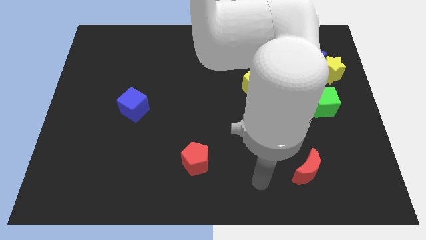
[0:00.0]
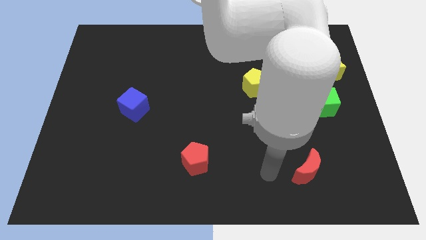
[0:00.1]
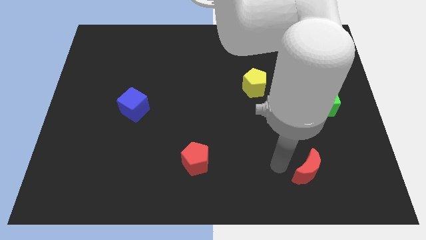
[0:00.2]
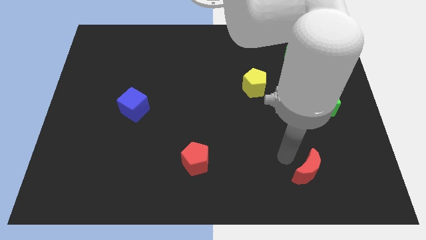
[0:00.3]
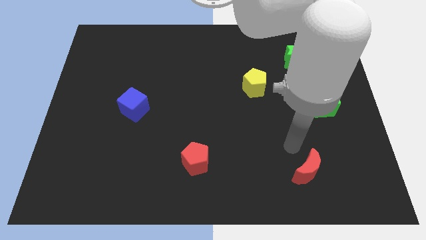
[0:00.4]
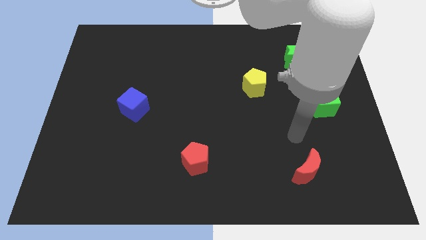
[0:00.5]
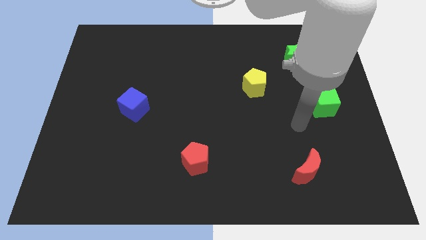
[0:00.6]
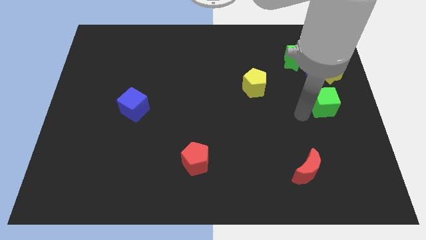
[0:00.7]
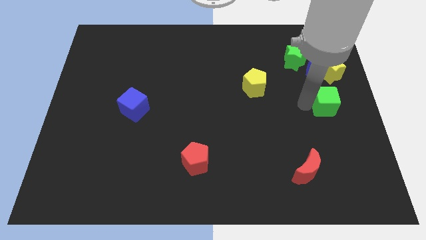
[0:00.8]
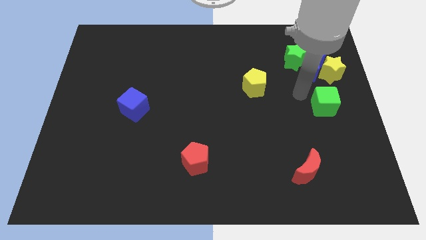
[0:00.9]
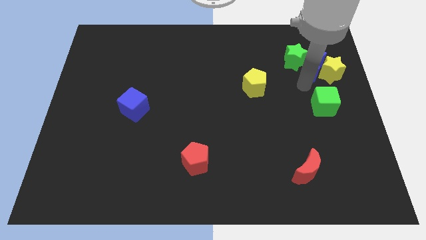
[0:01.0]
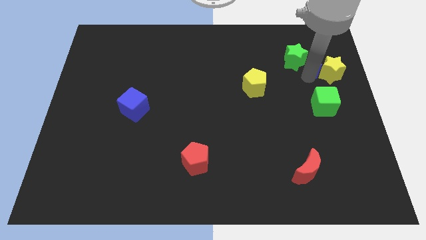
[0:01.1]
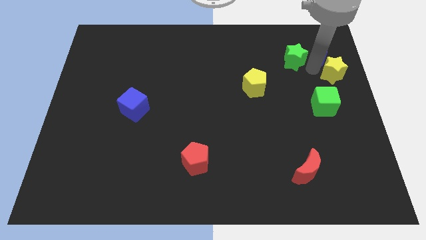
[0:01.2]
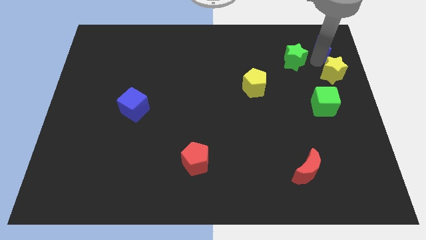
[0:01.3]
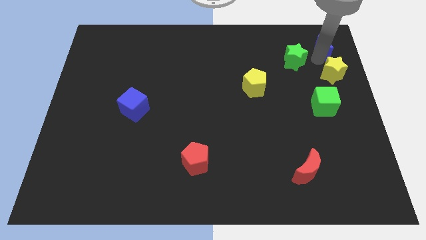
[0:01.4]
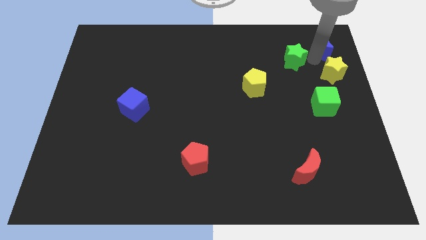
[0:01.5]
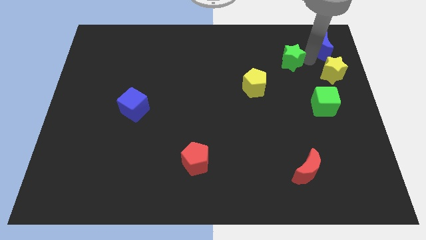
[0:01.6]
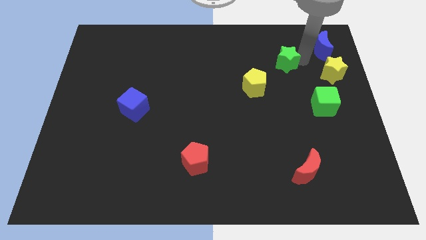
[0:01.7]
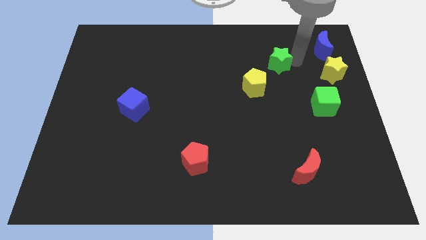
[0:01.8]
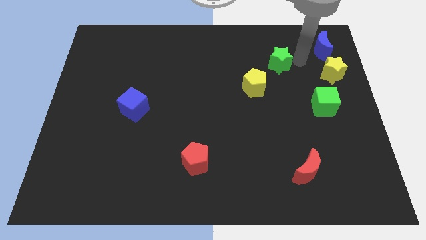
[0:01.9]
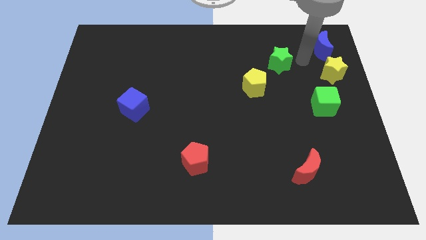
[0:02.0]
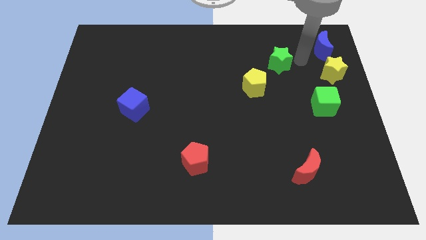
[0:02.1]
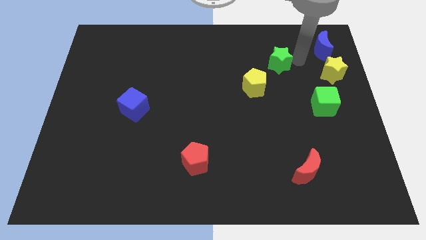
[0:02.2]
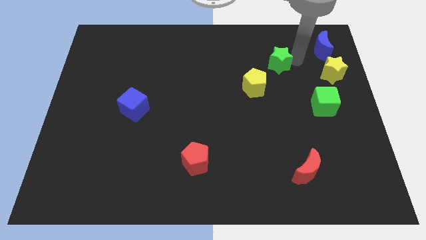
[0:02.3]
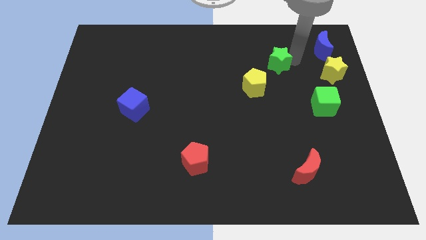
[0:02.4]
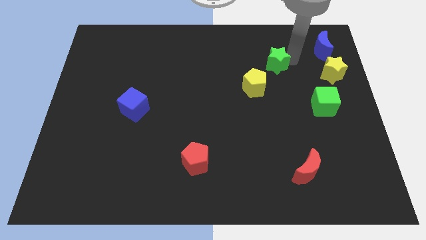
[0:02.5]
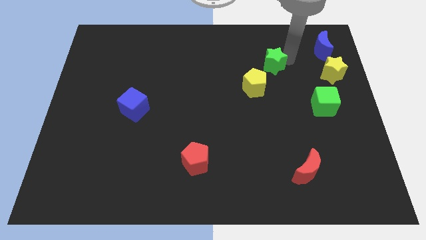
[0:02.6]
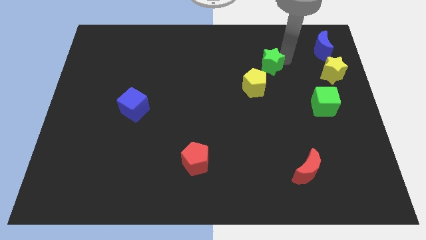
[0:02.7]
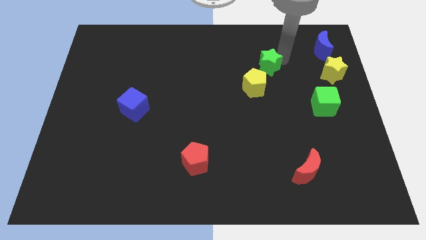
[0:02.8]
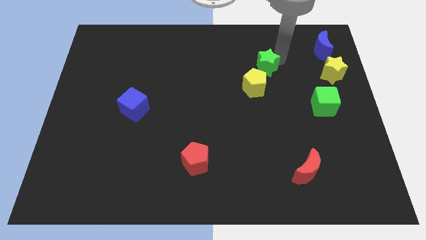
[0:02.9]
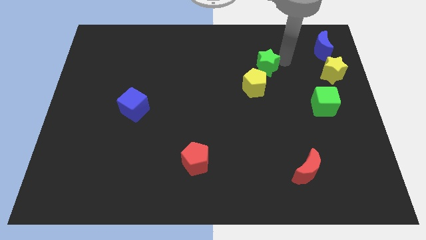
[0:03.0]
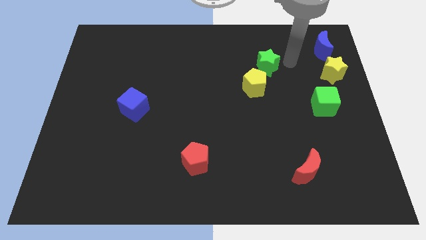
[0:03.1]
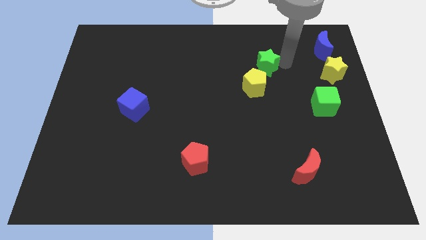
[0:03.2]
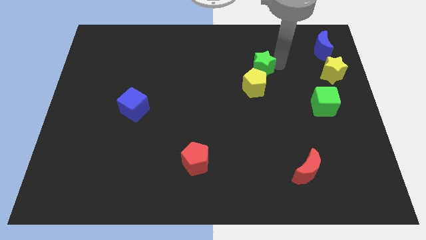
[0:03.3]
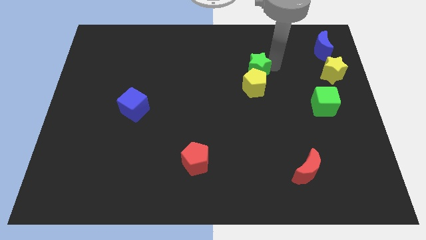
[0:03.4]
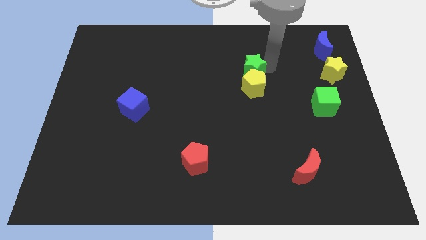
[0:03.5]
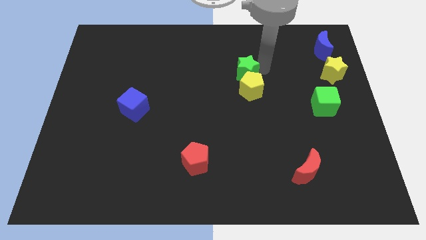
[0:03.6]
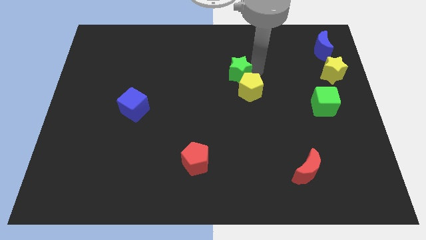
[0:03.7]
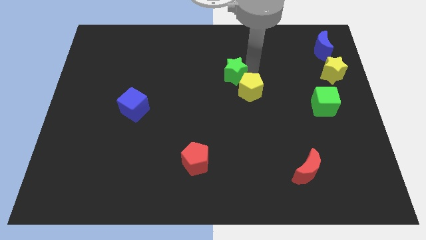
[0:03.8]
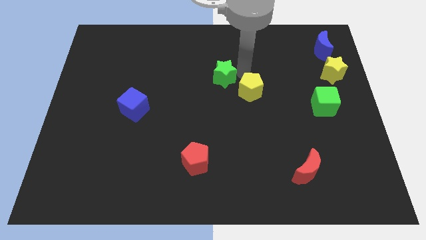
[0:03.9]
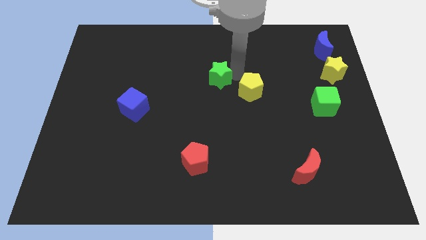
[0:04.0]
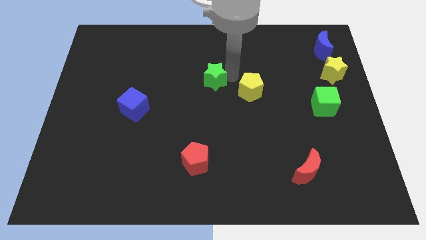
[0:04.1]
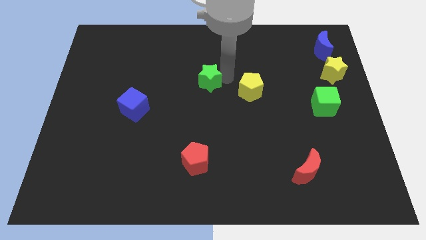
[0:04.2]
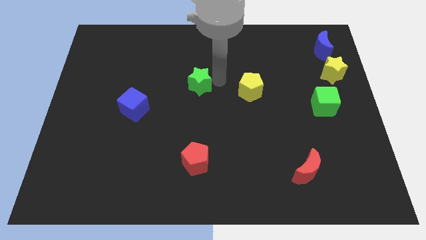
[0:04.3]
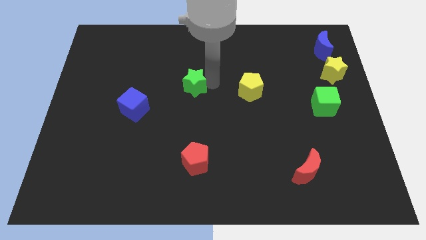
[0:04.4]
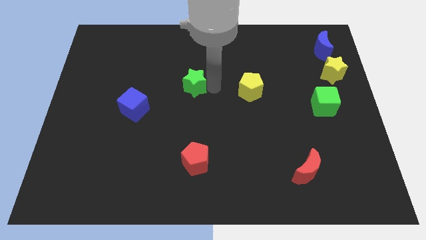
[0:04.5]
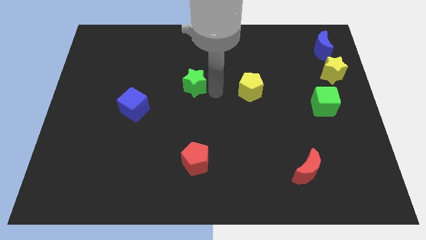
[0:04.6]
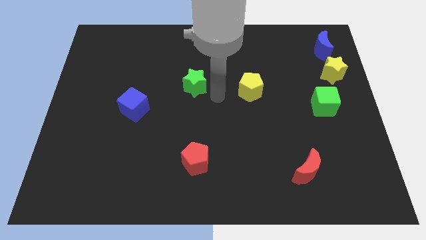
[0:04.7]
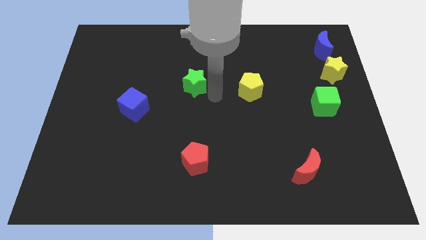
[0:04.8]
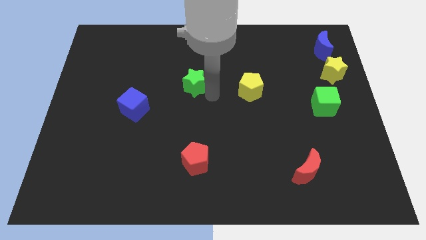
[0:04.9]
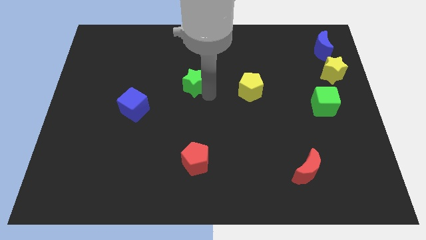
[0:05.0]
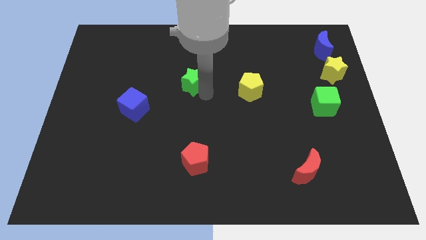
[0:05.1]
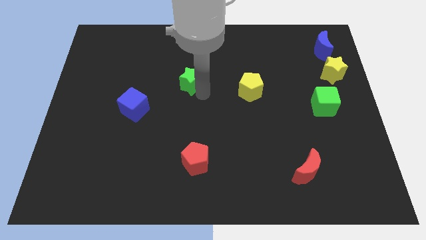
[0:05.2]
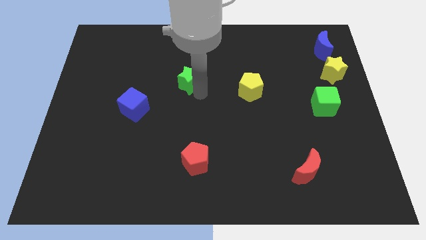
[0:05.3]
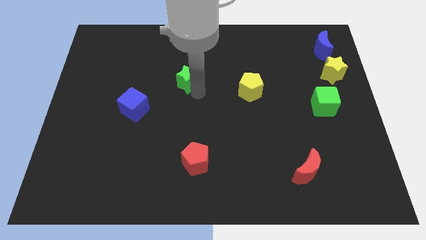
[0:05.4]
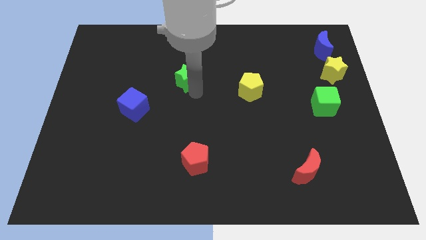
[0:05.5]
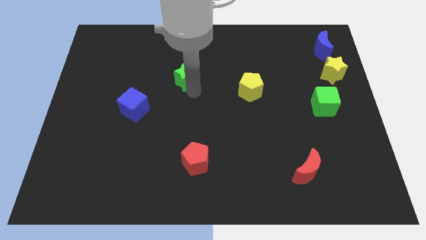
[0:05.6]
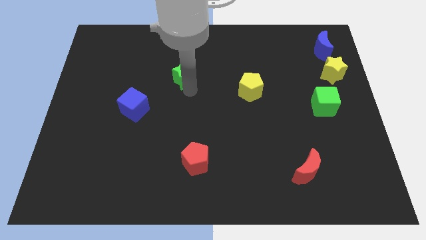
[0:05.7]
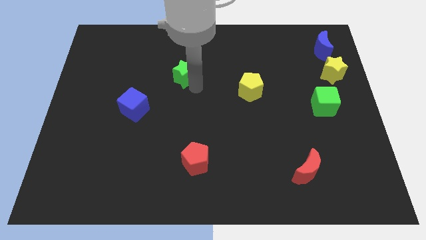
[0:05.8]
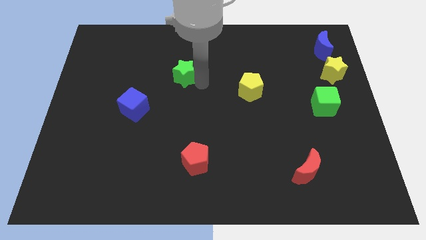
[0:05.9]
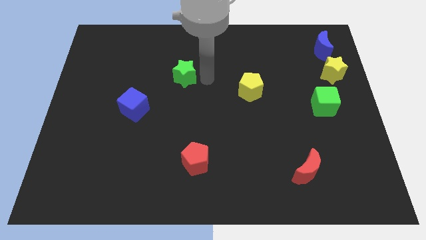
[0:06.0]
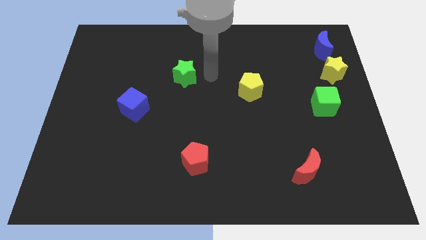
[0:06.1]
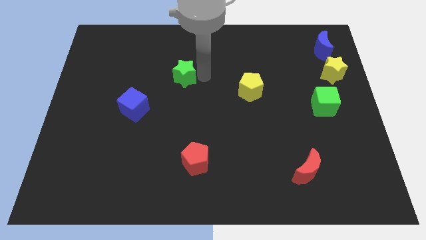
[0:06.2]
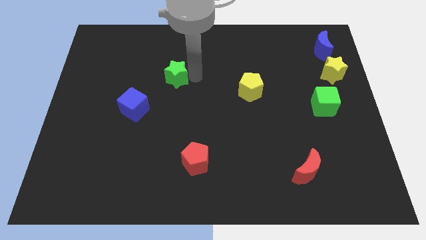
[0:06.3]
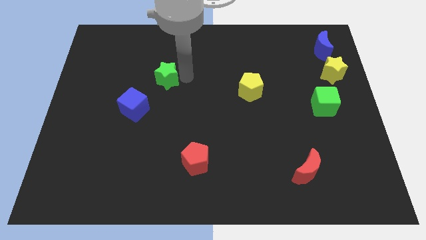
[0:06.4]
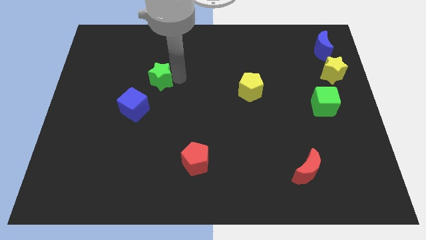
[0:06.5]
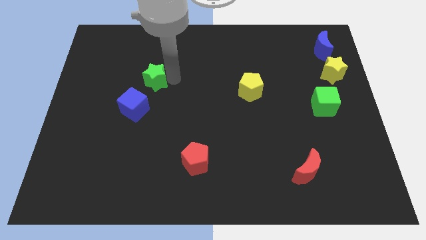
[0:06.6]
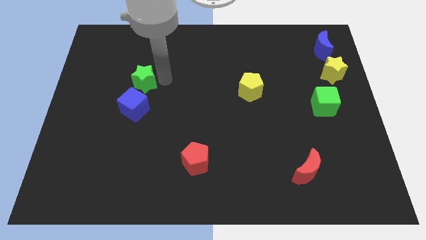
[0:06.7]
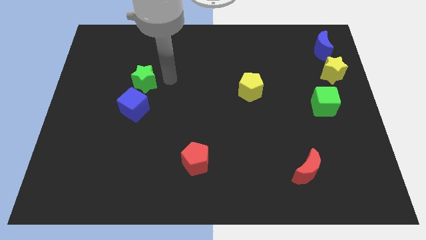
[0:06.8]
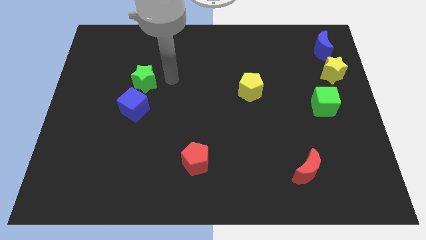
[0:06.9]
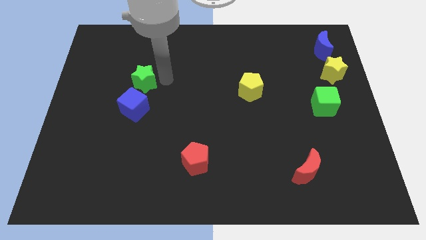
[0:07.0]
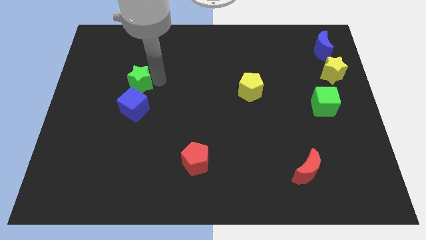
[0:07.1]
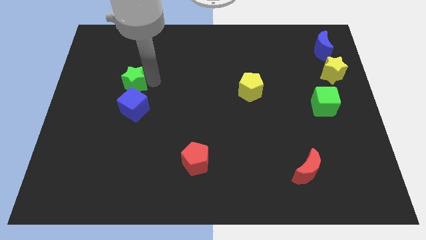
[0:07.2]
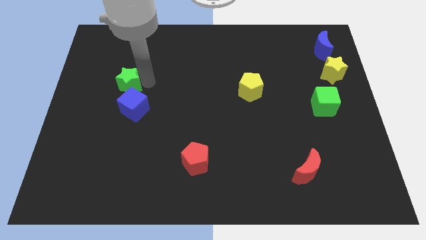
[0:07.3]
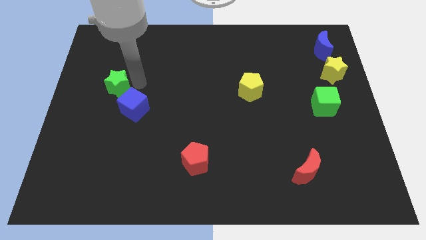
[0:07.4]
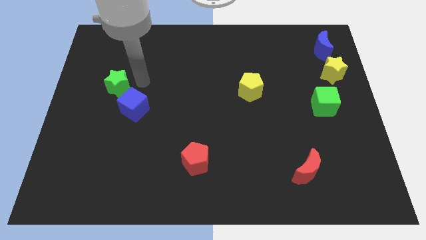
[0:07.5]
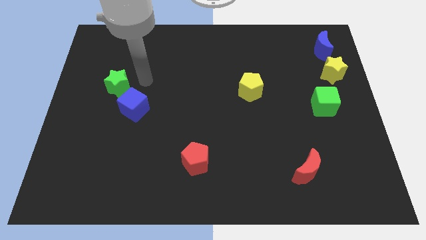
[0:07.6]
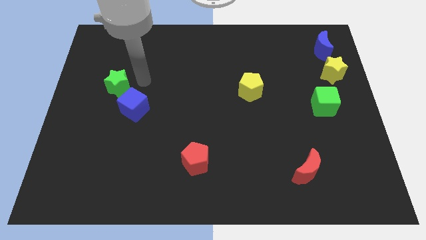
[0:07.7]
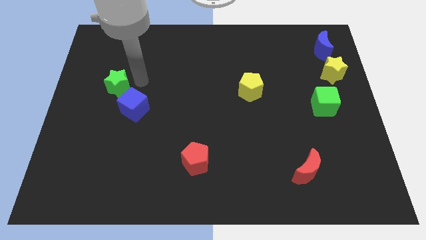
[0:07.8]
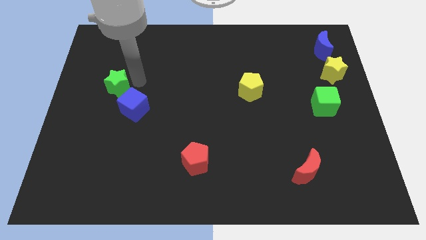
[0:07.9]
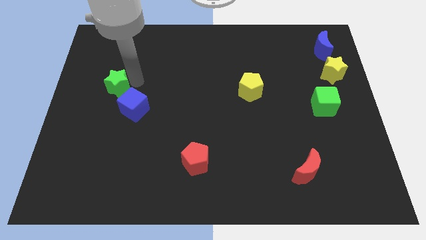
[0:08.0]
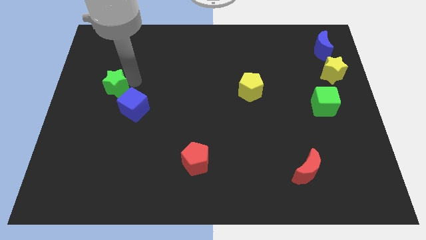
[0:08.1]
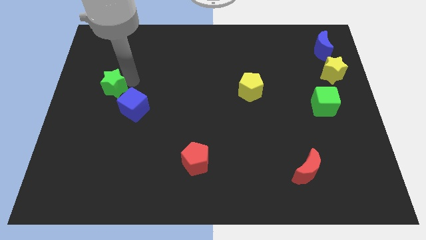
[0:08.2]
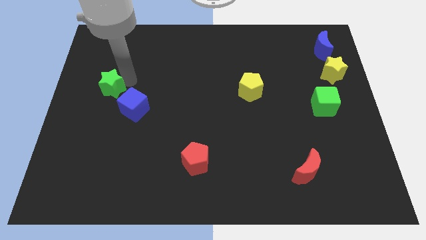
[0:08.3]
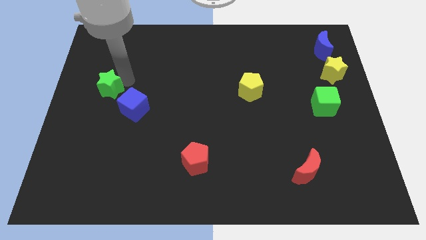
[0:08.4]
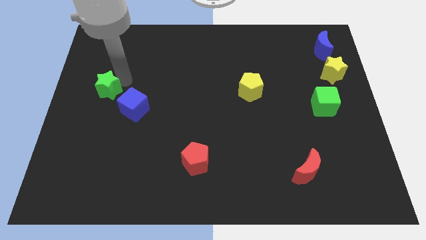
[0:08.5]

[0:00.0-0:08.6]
push the green star to the left side
